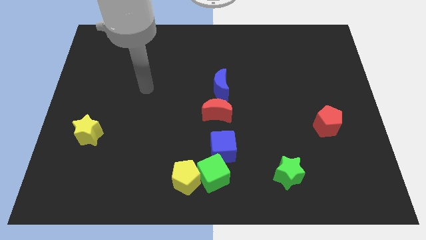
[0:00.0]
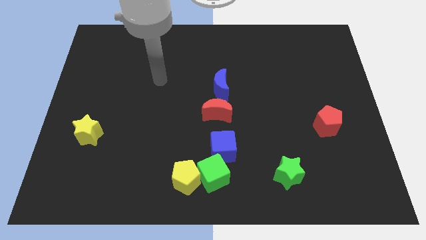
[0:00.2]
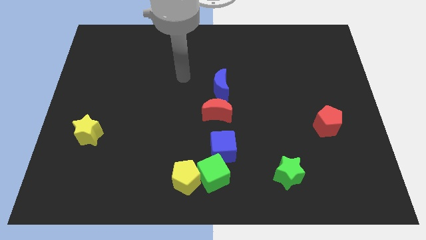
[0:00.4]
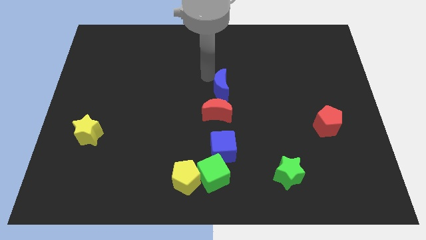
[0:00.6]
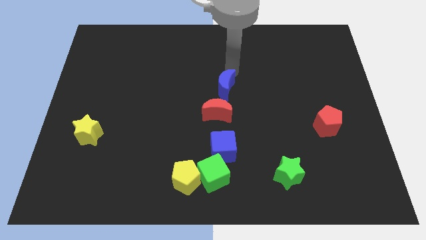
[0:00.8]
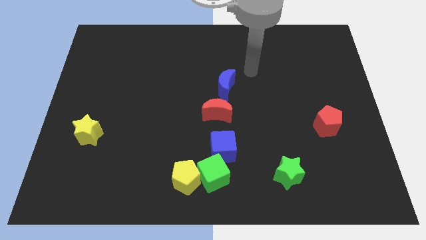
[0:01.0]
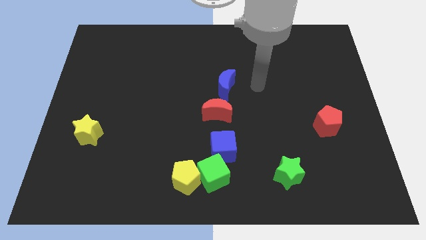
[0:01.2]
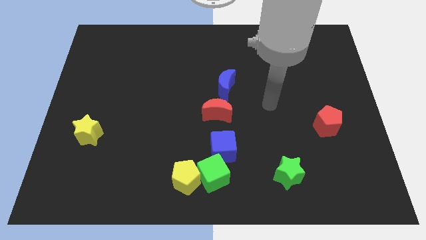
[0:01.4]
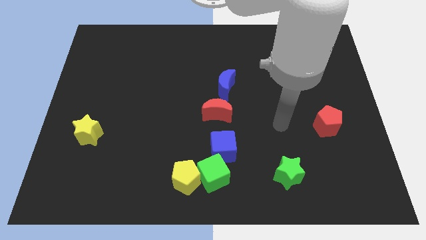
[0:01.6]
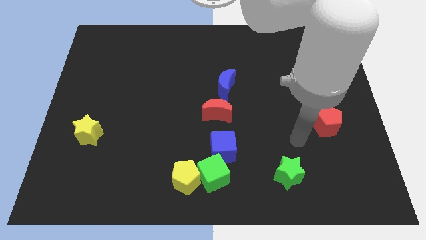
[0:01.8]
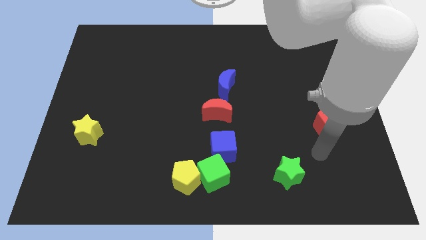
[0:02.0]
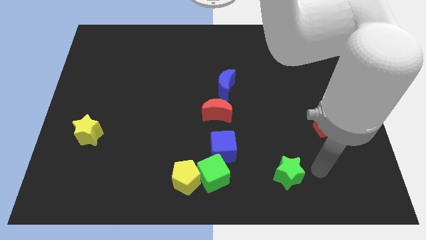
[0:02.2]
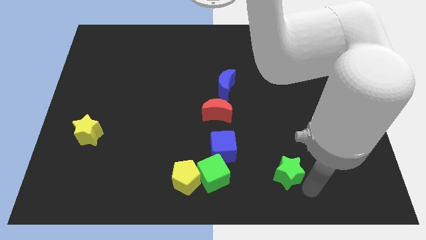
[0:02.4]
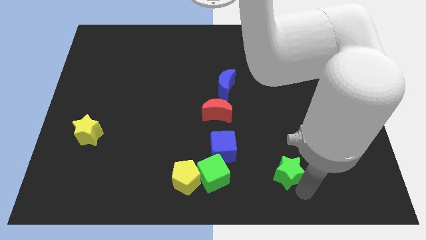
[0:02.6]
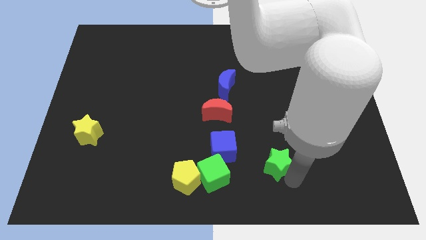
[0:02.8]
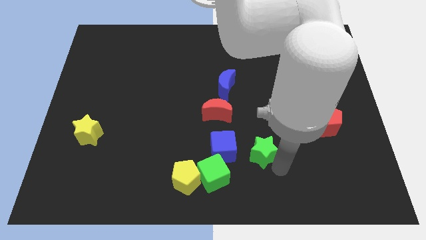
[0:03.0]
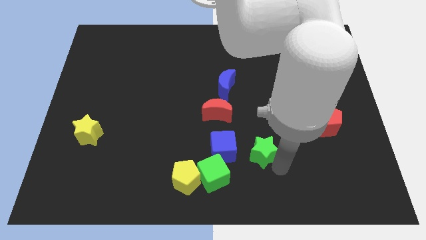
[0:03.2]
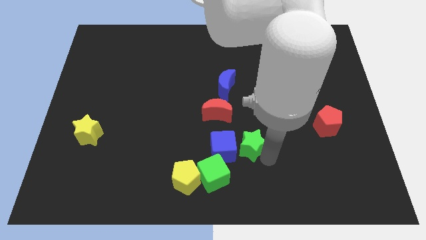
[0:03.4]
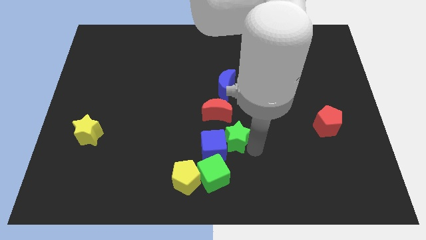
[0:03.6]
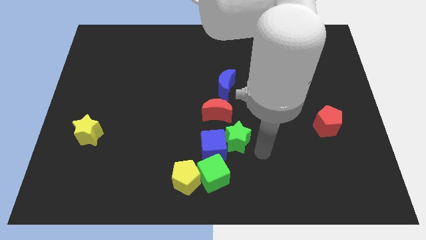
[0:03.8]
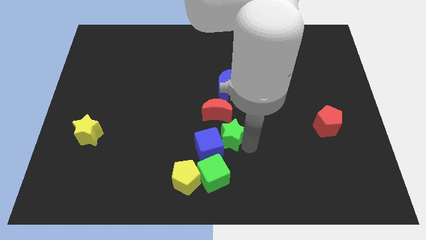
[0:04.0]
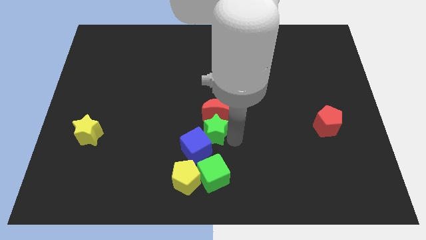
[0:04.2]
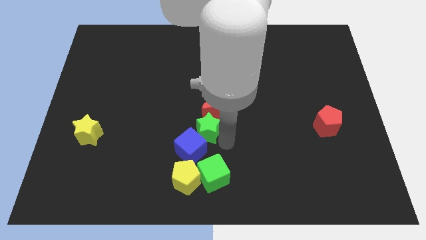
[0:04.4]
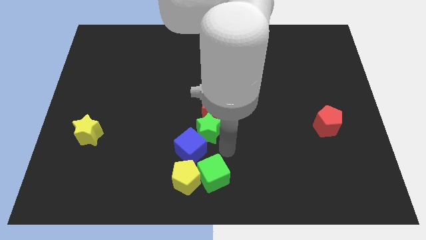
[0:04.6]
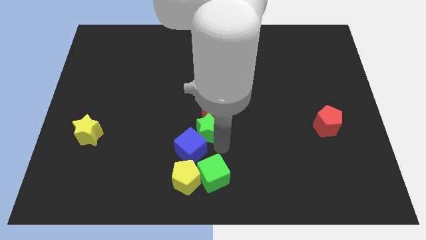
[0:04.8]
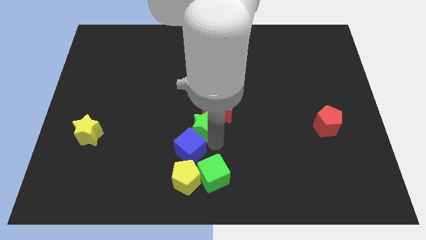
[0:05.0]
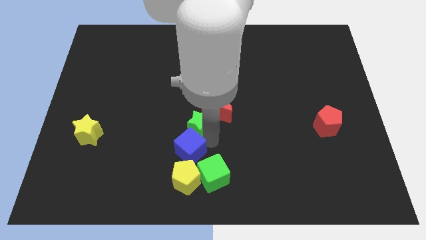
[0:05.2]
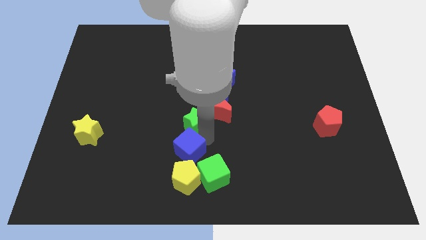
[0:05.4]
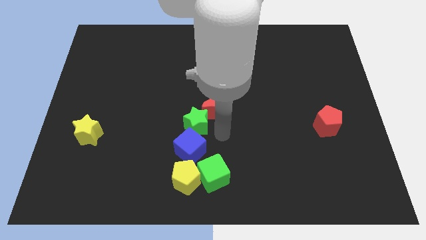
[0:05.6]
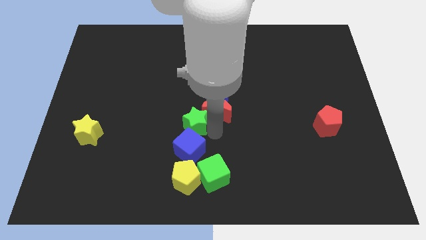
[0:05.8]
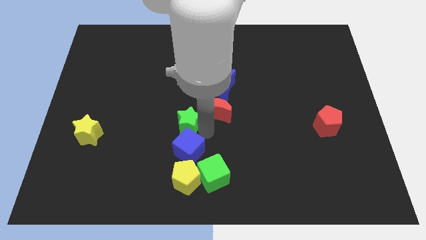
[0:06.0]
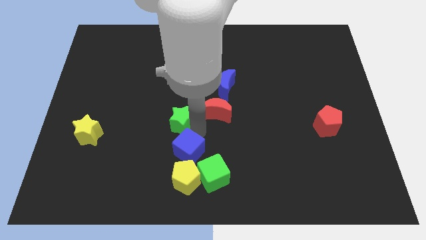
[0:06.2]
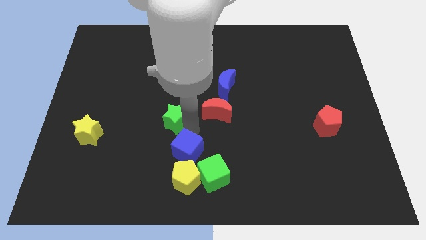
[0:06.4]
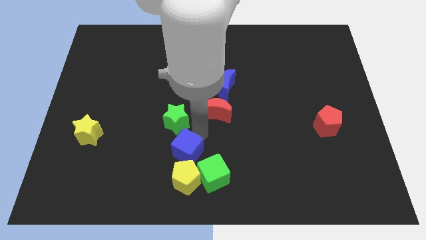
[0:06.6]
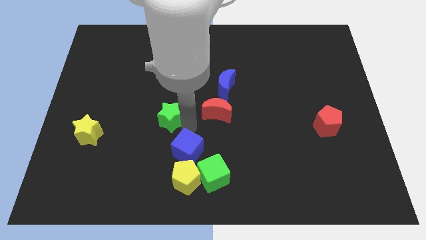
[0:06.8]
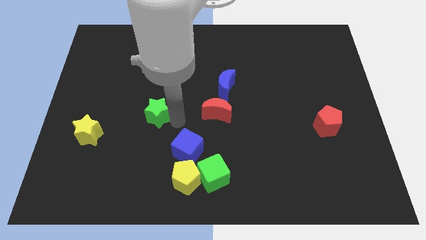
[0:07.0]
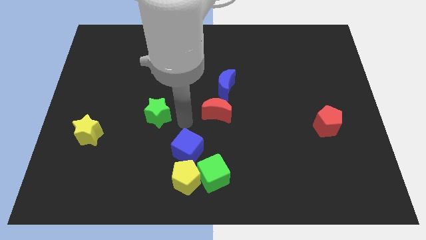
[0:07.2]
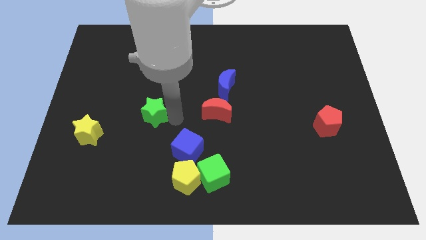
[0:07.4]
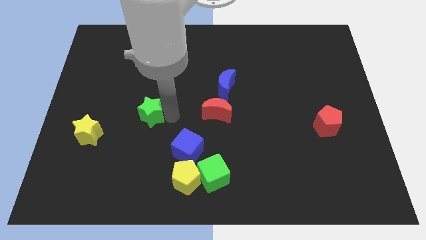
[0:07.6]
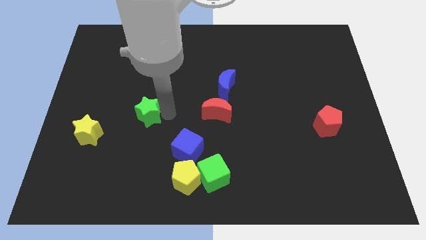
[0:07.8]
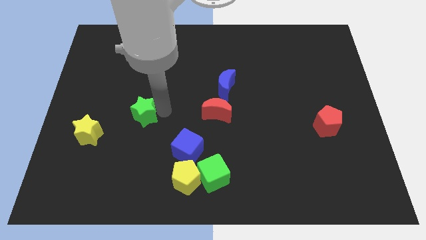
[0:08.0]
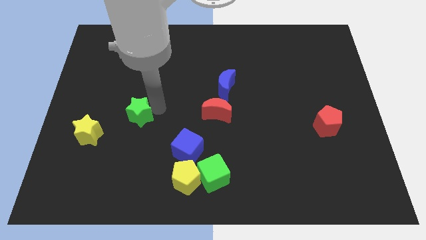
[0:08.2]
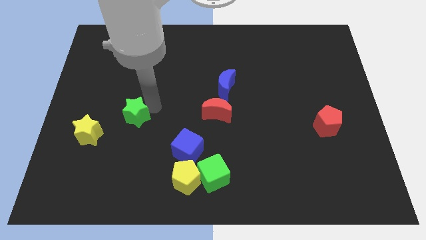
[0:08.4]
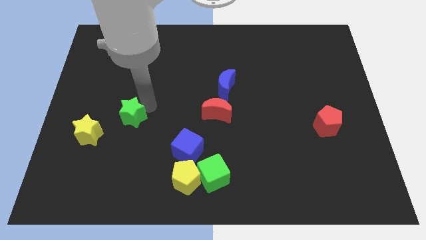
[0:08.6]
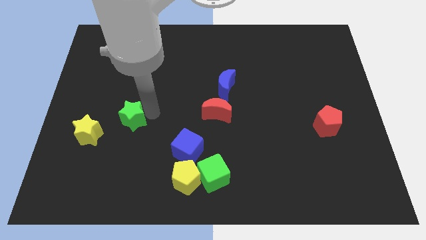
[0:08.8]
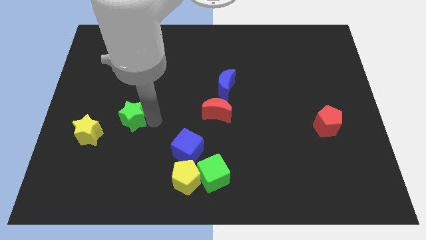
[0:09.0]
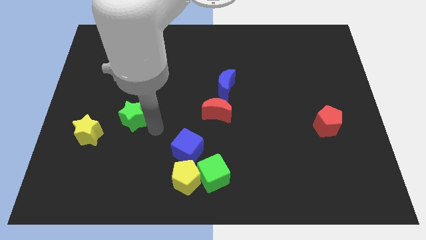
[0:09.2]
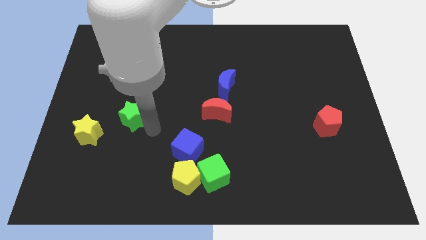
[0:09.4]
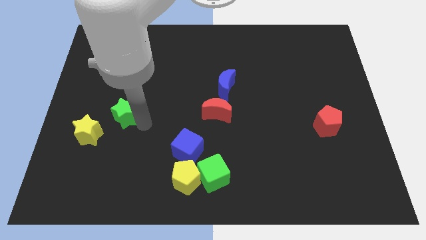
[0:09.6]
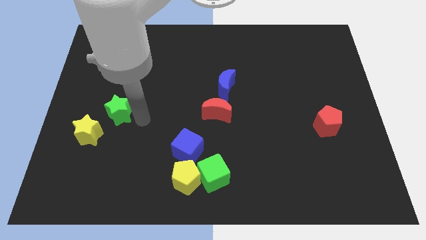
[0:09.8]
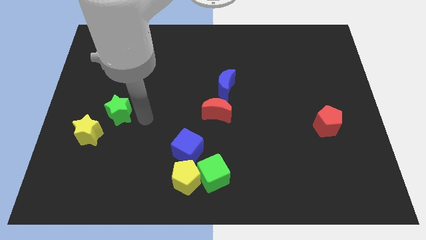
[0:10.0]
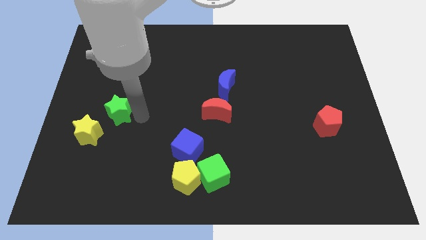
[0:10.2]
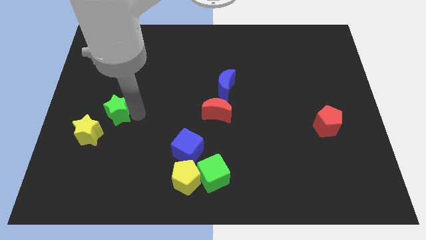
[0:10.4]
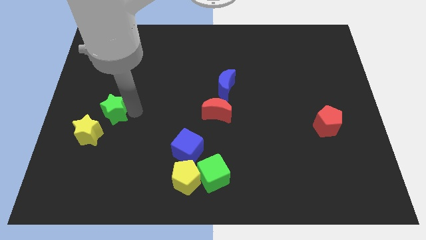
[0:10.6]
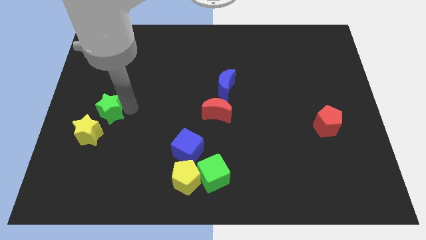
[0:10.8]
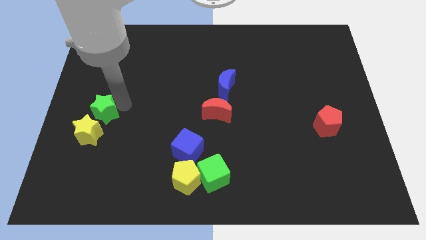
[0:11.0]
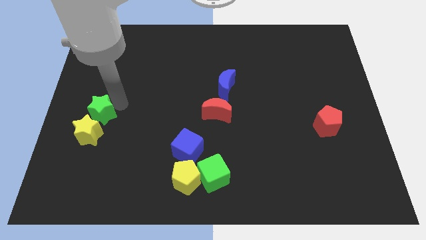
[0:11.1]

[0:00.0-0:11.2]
put the green star to the left side

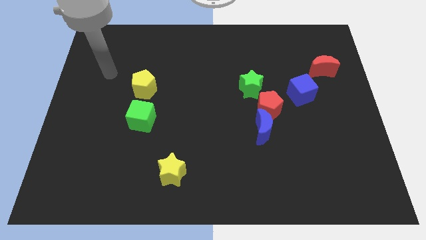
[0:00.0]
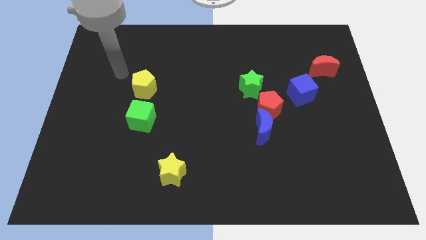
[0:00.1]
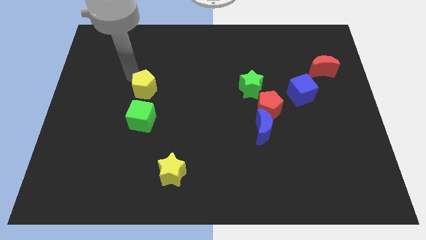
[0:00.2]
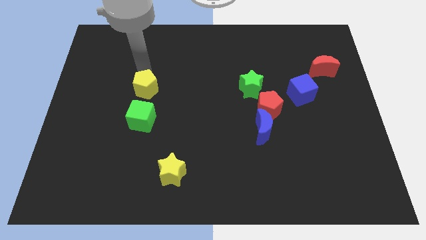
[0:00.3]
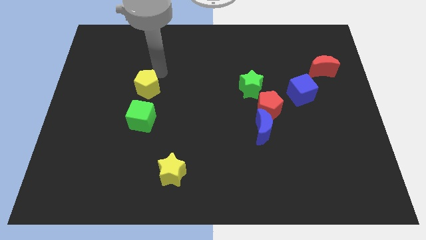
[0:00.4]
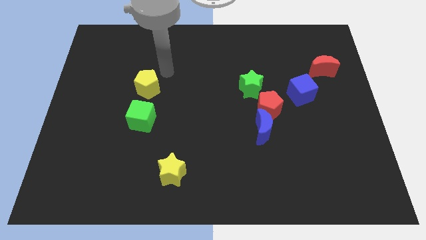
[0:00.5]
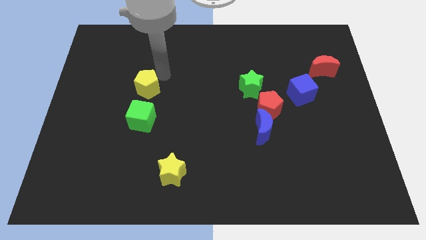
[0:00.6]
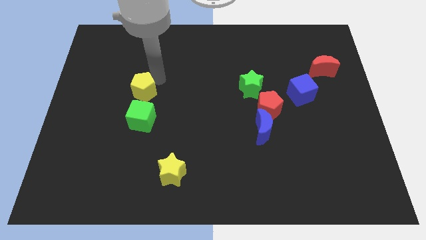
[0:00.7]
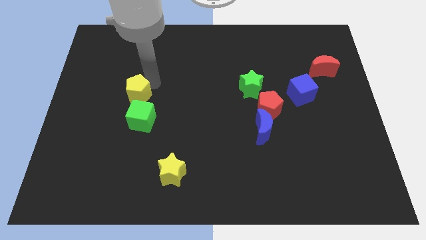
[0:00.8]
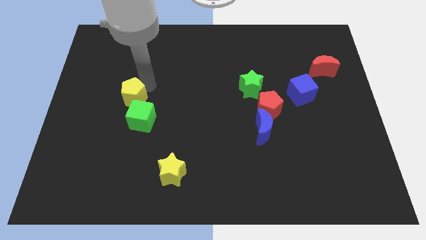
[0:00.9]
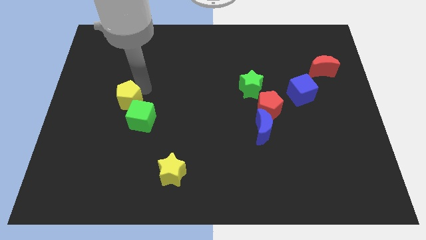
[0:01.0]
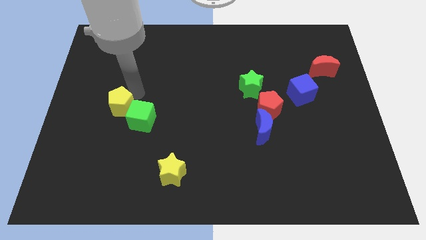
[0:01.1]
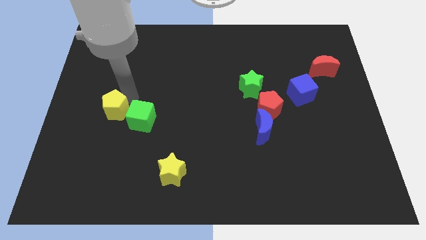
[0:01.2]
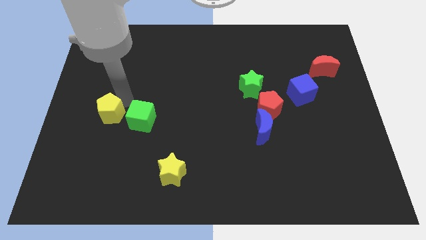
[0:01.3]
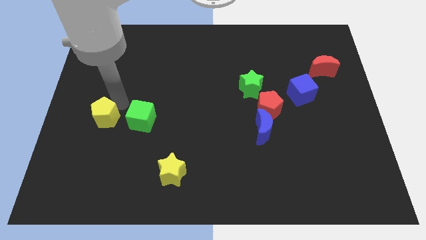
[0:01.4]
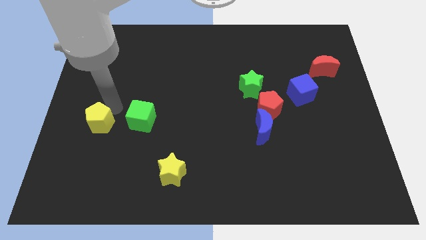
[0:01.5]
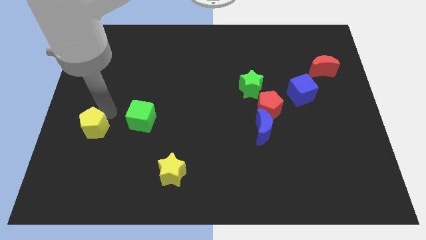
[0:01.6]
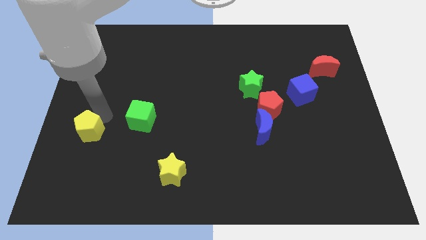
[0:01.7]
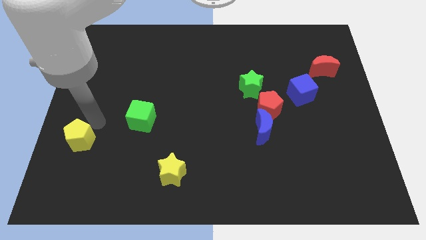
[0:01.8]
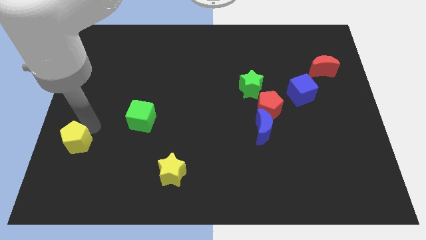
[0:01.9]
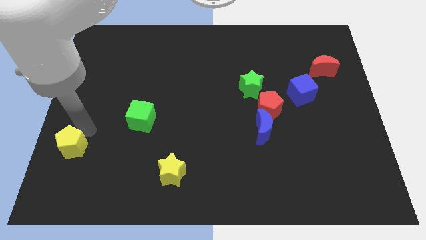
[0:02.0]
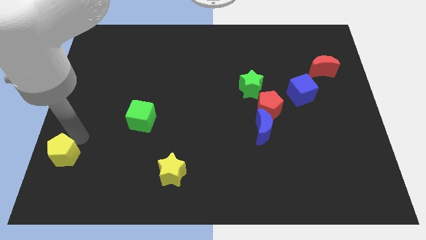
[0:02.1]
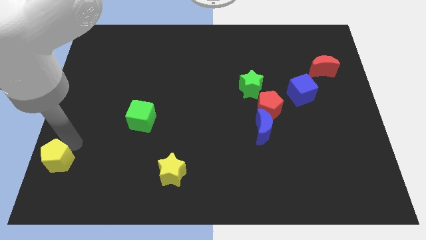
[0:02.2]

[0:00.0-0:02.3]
push the yellow pentagon to the bottom left of the board
